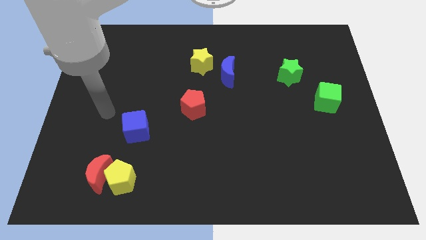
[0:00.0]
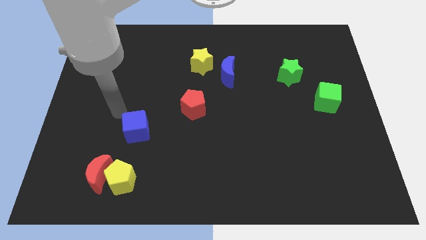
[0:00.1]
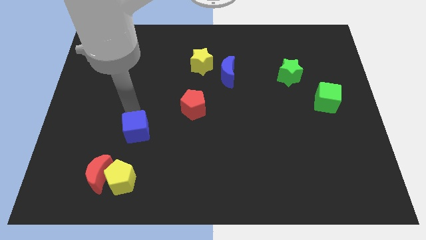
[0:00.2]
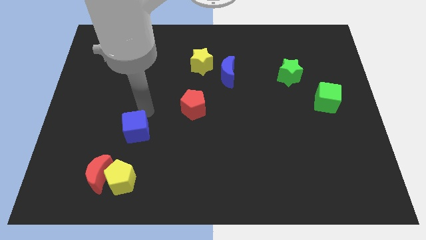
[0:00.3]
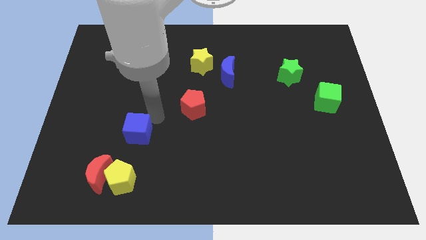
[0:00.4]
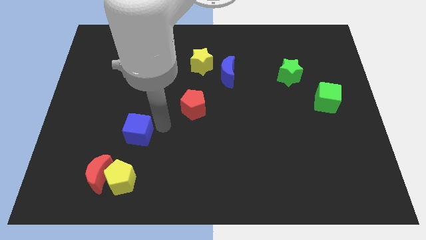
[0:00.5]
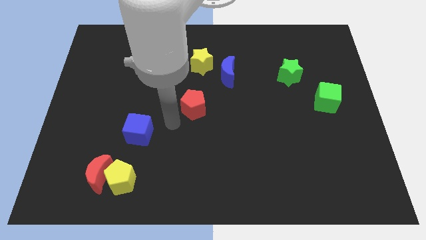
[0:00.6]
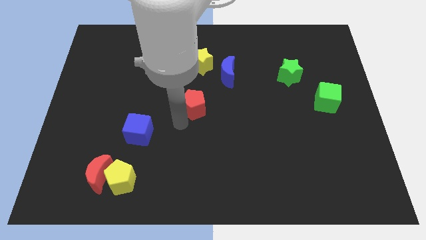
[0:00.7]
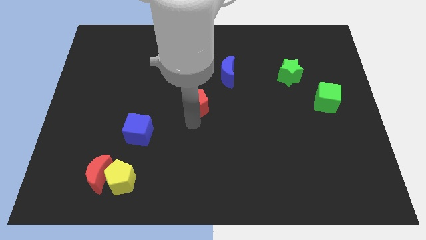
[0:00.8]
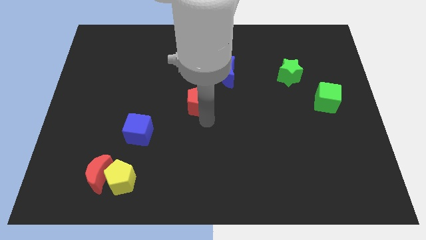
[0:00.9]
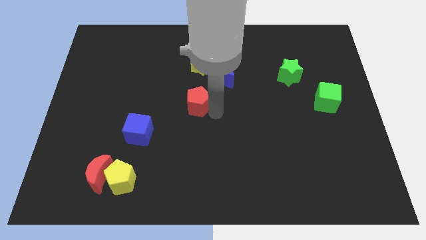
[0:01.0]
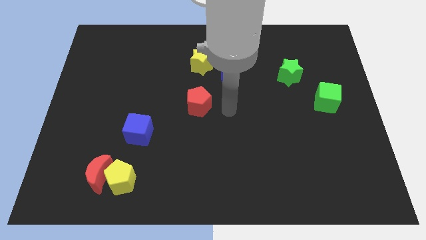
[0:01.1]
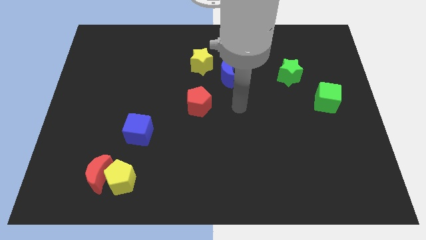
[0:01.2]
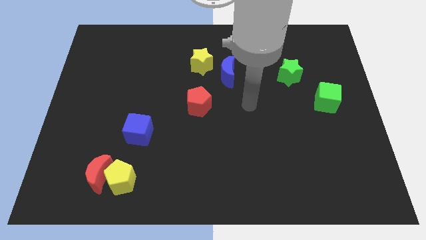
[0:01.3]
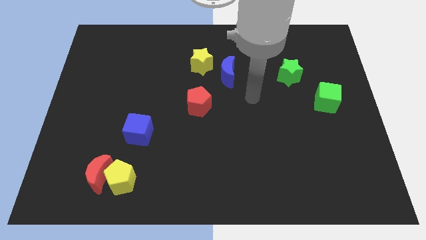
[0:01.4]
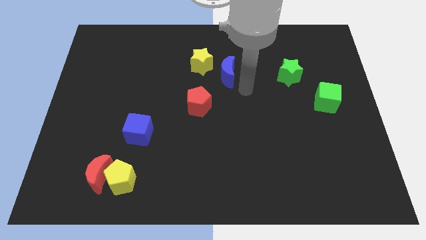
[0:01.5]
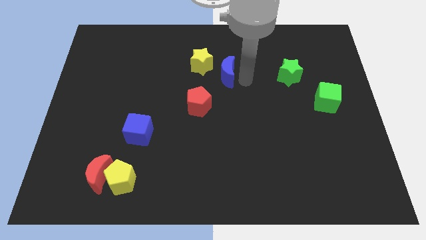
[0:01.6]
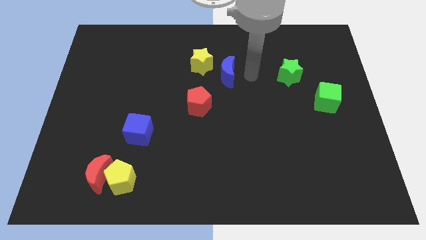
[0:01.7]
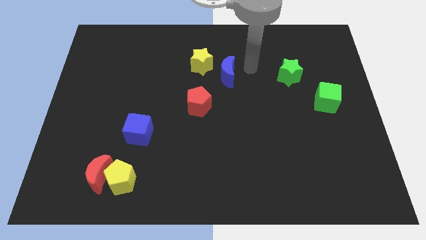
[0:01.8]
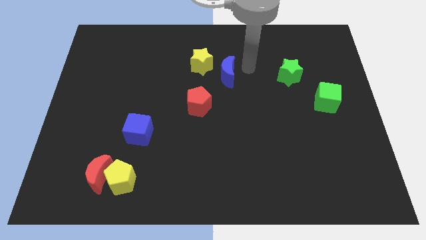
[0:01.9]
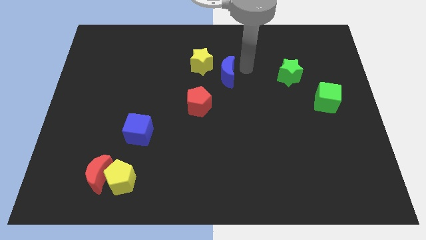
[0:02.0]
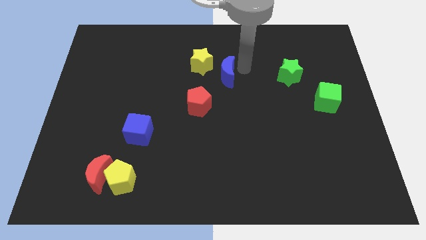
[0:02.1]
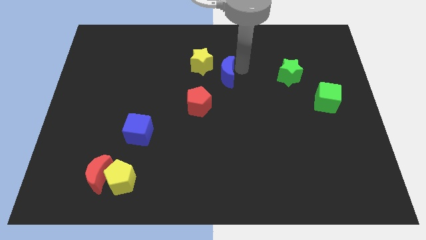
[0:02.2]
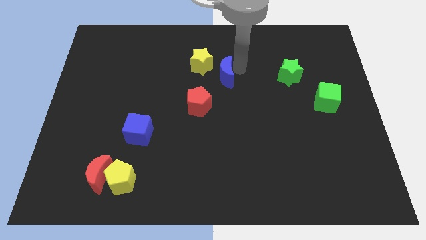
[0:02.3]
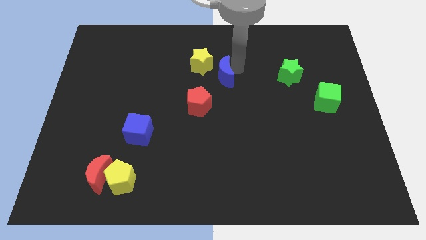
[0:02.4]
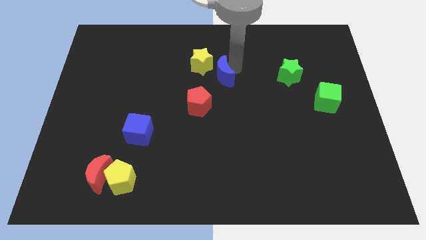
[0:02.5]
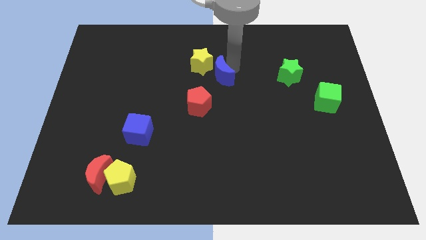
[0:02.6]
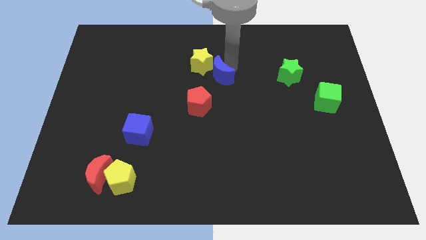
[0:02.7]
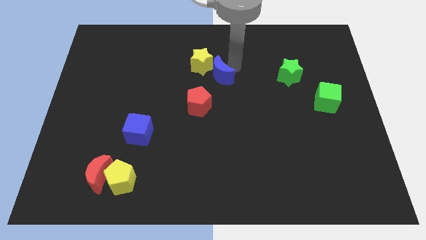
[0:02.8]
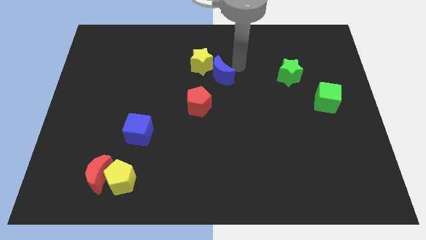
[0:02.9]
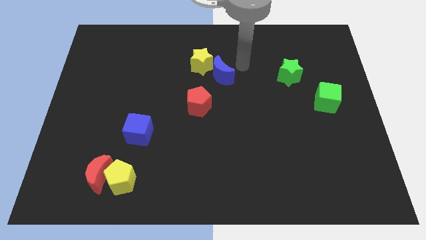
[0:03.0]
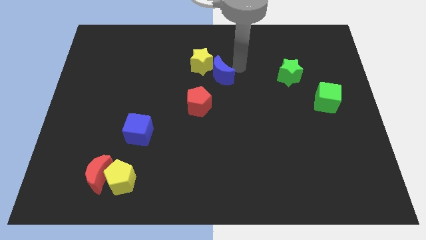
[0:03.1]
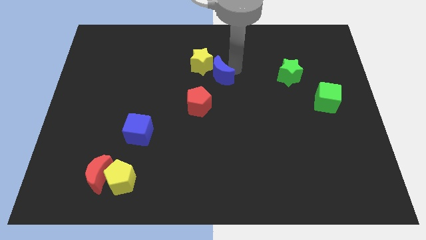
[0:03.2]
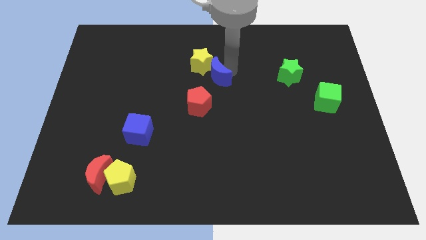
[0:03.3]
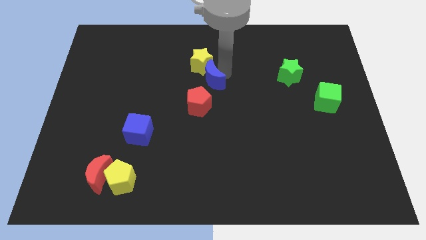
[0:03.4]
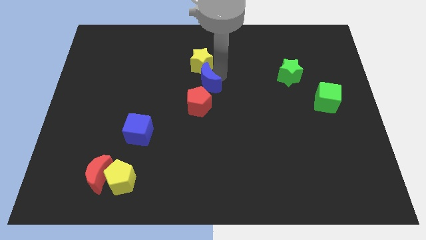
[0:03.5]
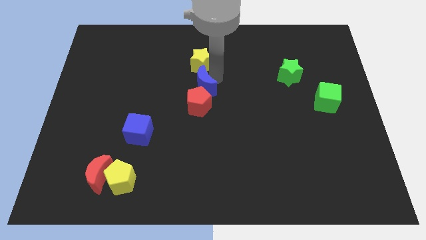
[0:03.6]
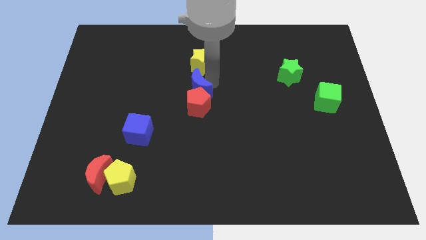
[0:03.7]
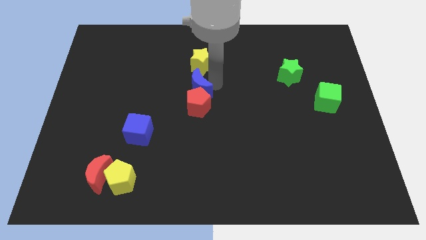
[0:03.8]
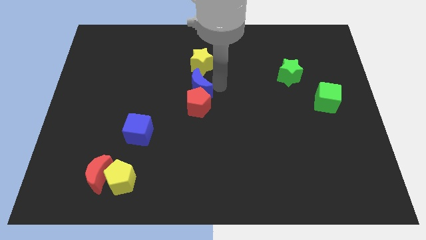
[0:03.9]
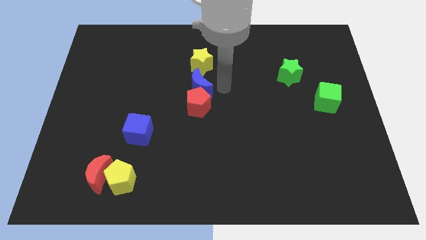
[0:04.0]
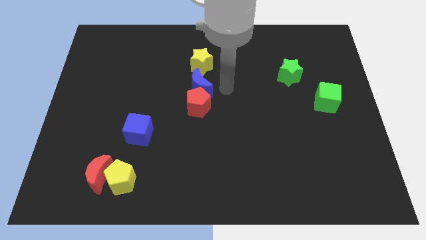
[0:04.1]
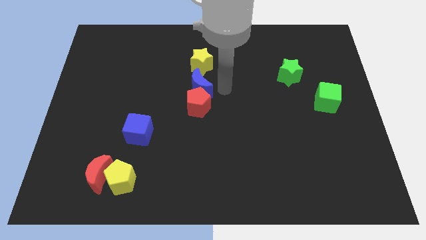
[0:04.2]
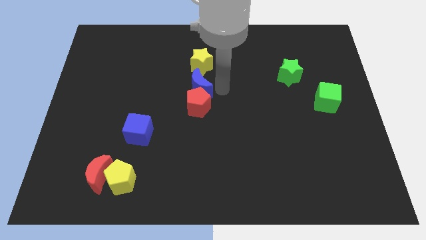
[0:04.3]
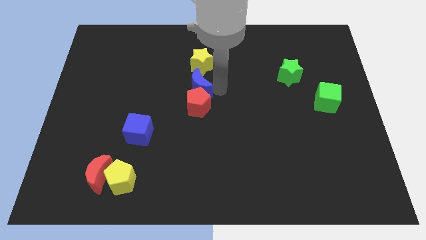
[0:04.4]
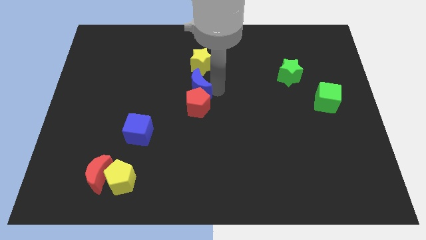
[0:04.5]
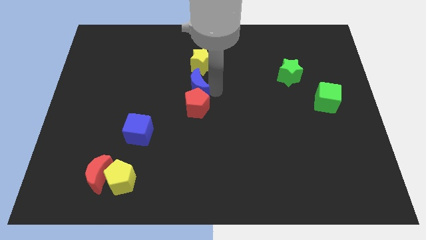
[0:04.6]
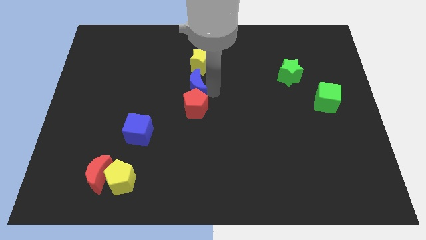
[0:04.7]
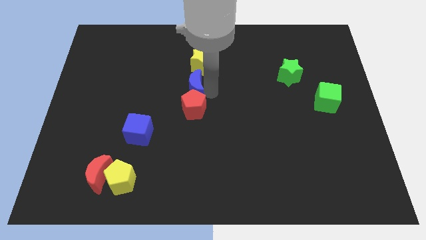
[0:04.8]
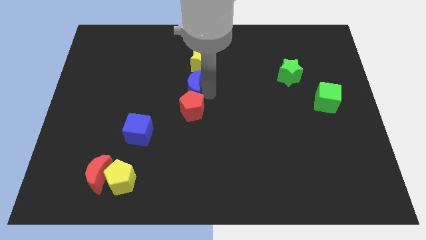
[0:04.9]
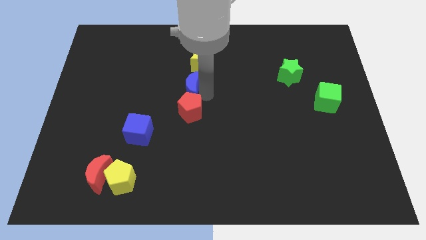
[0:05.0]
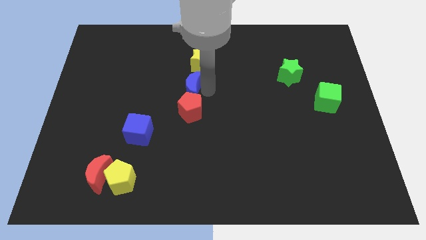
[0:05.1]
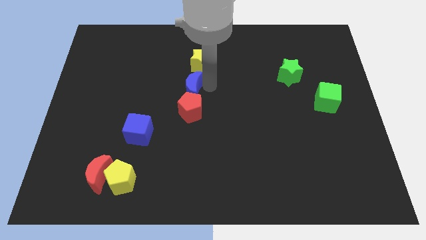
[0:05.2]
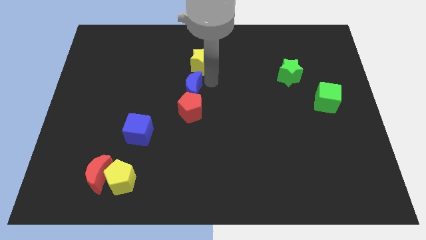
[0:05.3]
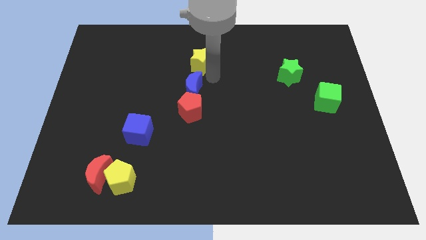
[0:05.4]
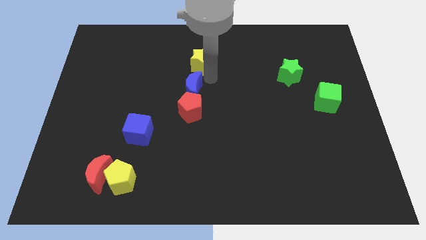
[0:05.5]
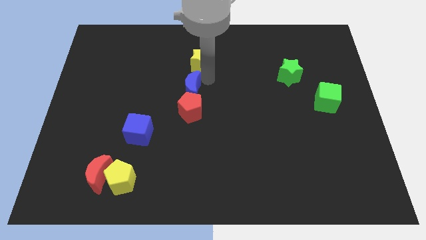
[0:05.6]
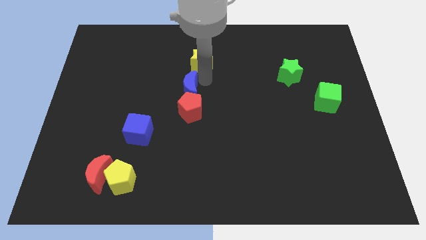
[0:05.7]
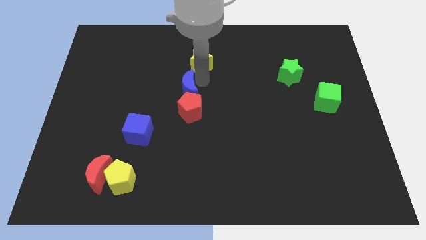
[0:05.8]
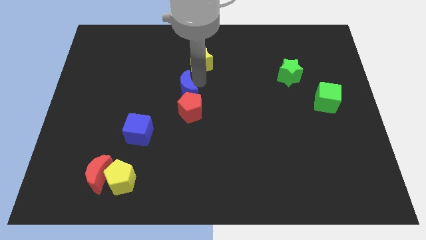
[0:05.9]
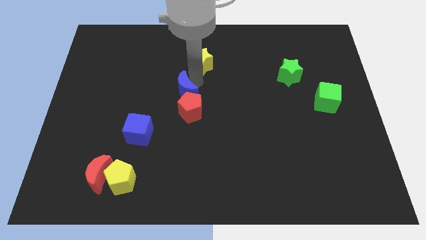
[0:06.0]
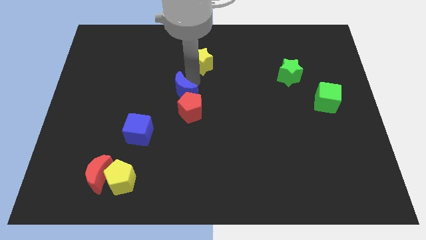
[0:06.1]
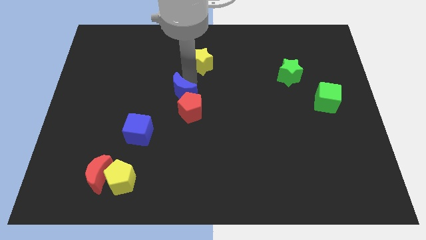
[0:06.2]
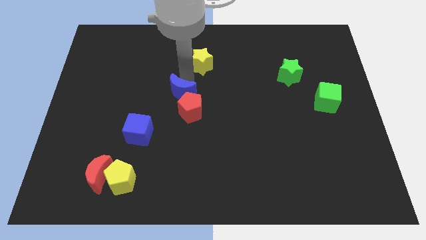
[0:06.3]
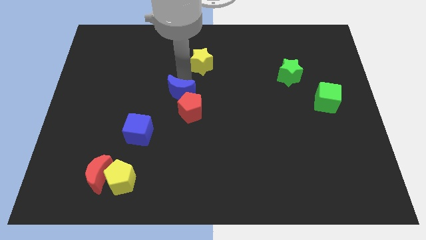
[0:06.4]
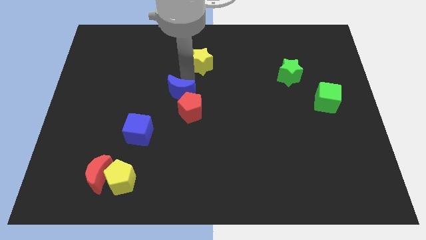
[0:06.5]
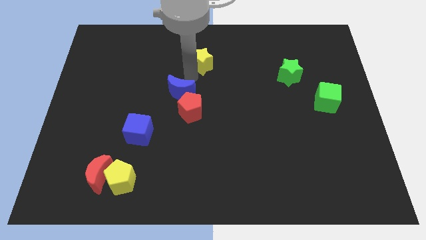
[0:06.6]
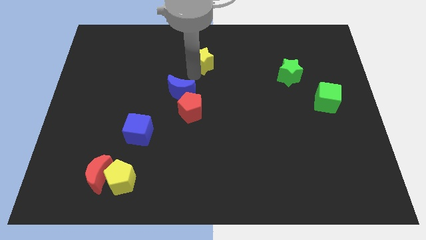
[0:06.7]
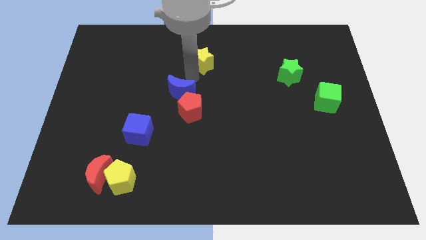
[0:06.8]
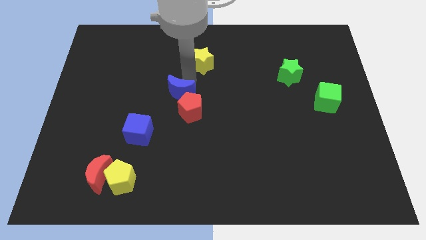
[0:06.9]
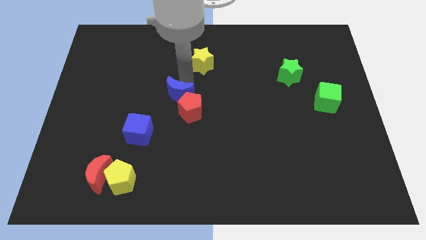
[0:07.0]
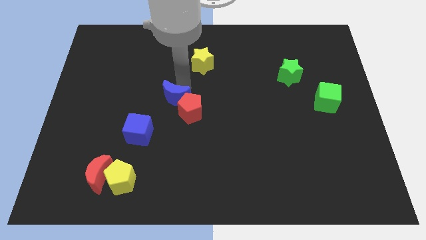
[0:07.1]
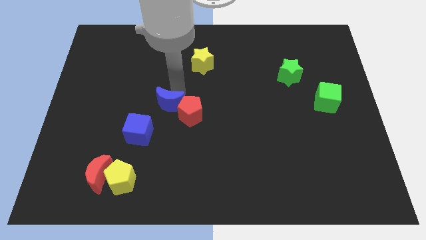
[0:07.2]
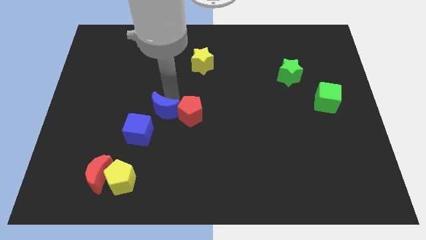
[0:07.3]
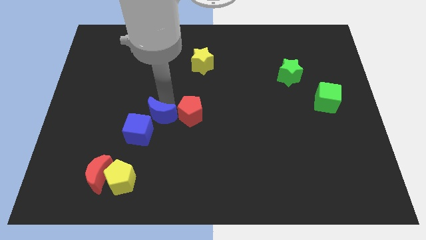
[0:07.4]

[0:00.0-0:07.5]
push the blue moon down and to the left

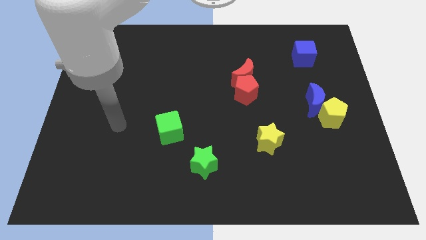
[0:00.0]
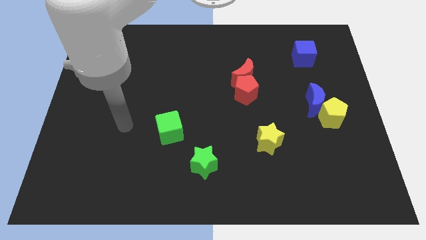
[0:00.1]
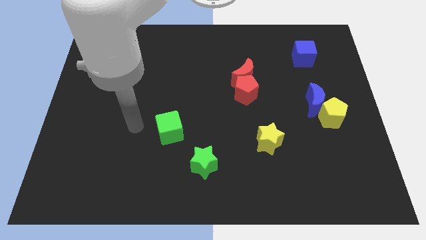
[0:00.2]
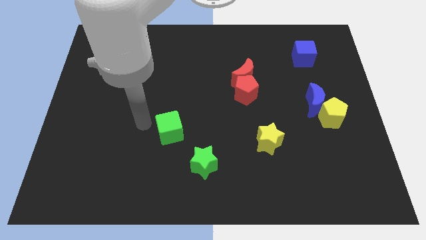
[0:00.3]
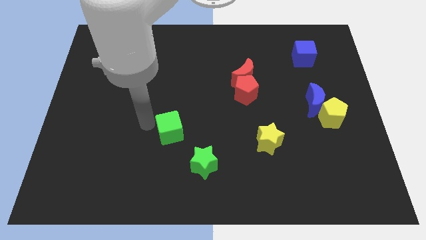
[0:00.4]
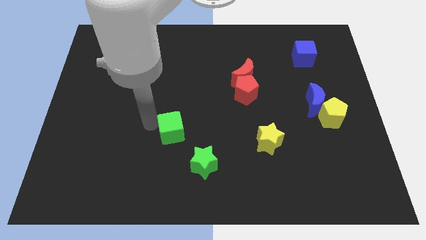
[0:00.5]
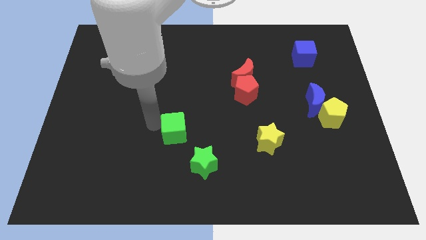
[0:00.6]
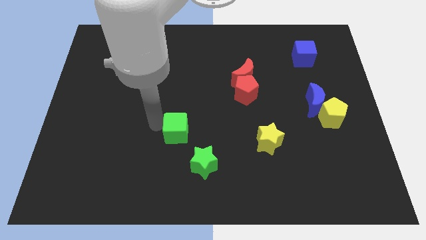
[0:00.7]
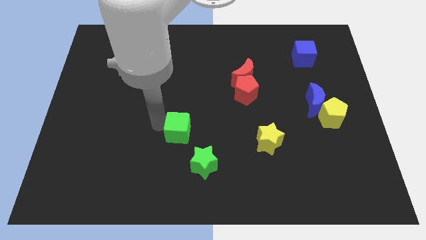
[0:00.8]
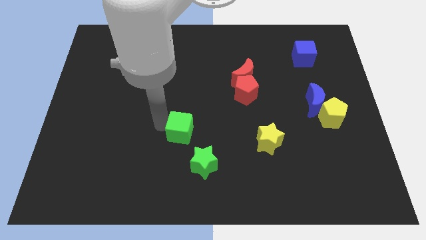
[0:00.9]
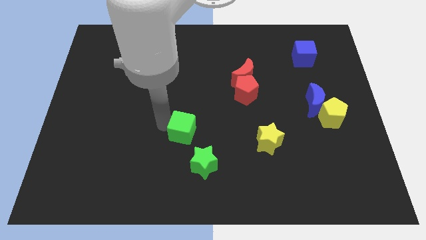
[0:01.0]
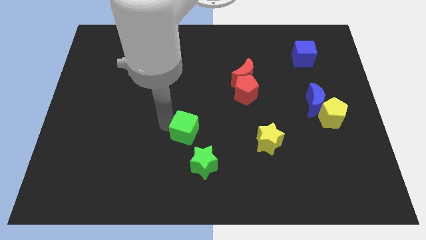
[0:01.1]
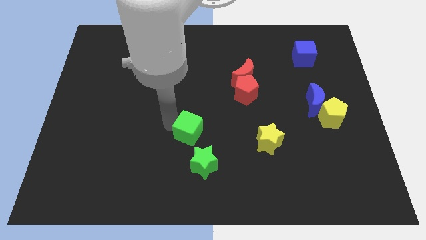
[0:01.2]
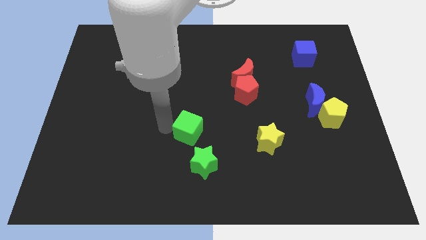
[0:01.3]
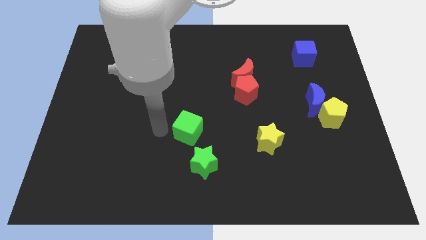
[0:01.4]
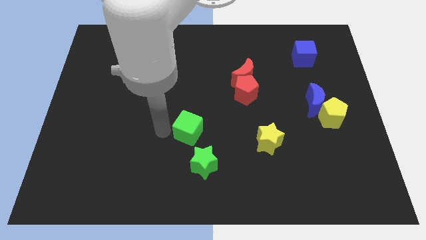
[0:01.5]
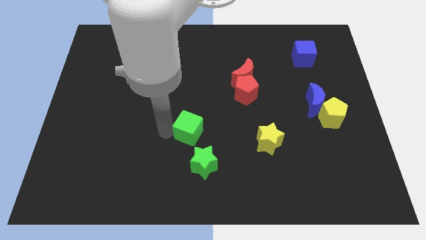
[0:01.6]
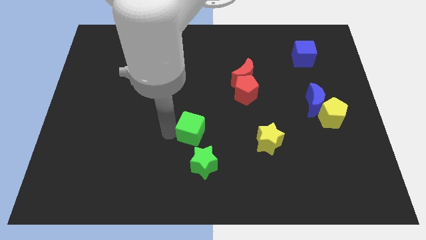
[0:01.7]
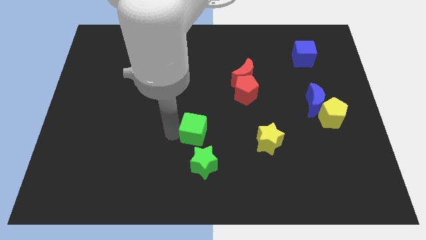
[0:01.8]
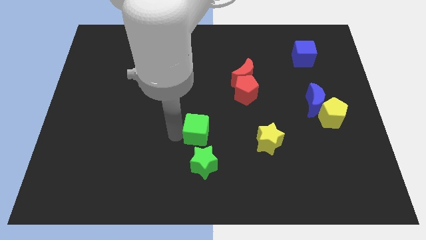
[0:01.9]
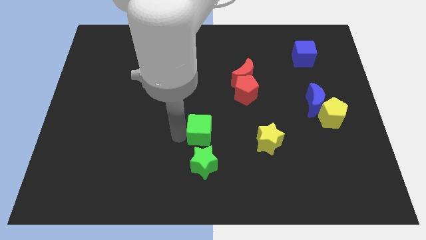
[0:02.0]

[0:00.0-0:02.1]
slightly push the green cube to the right
